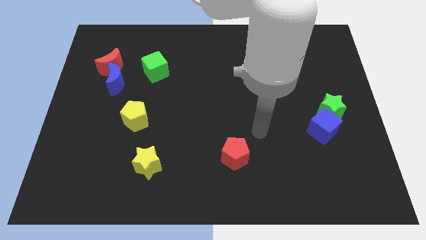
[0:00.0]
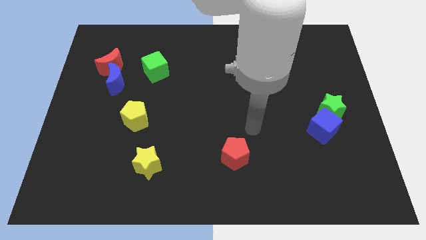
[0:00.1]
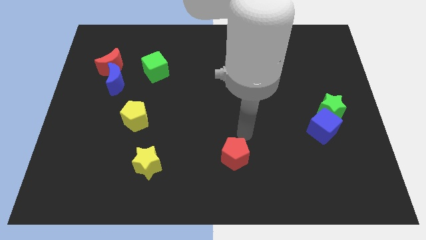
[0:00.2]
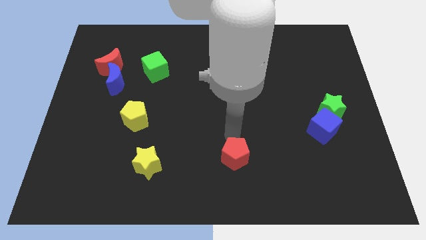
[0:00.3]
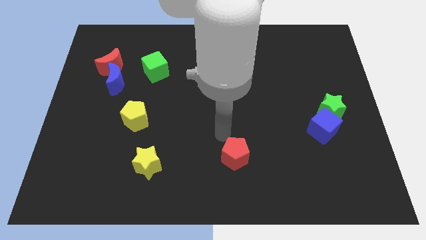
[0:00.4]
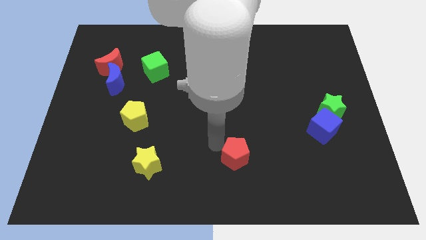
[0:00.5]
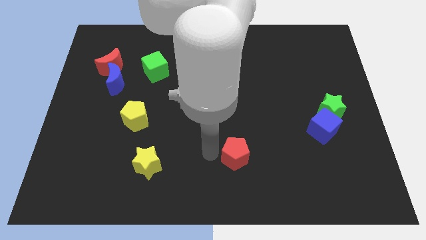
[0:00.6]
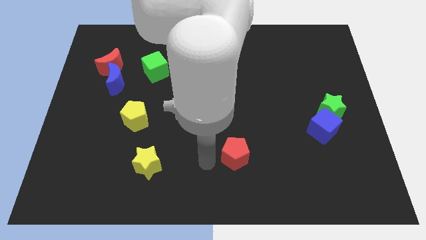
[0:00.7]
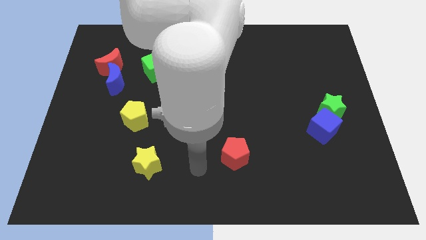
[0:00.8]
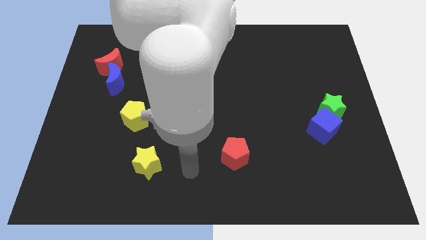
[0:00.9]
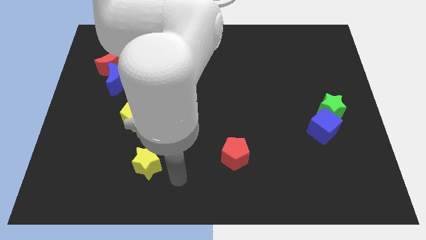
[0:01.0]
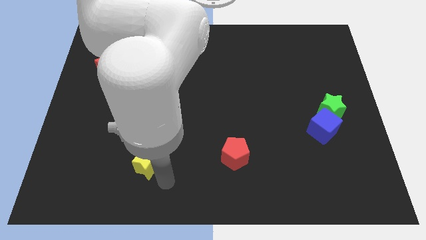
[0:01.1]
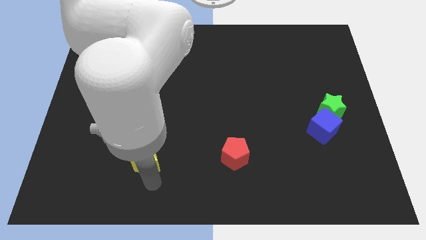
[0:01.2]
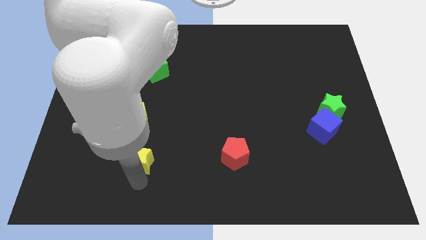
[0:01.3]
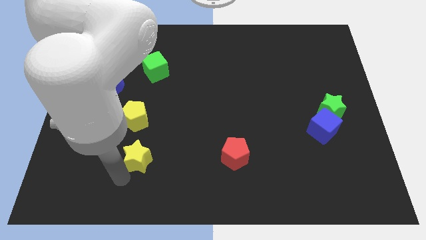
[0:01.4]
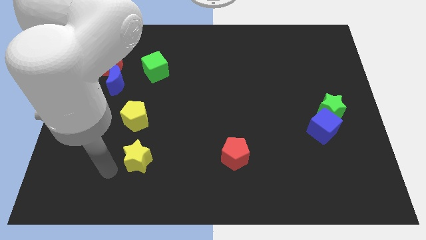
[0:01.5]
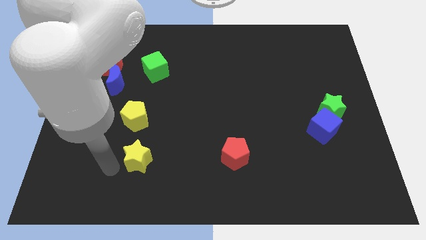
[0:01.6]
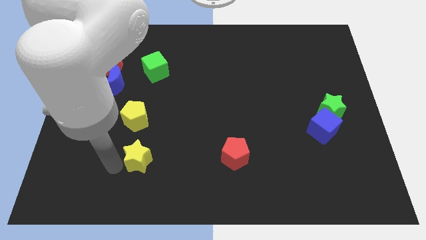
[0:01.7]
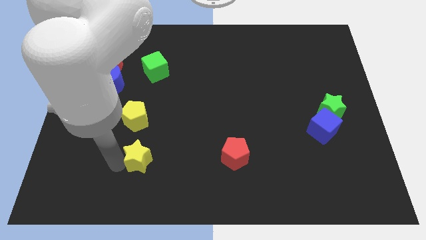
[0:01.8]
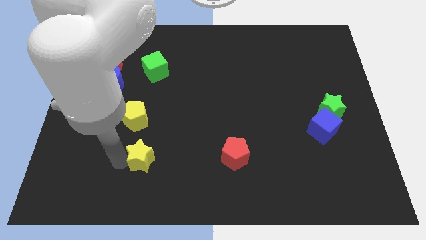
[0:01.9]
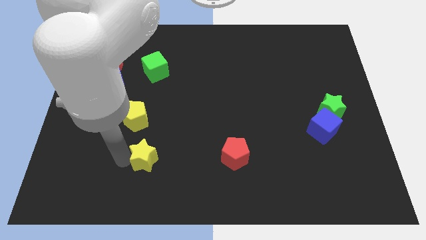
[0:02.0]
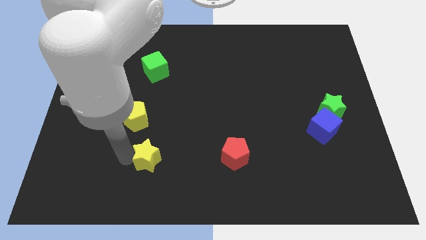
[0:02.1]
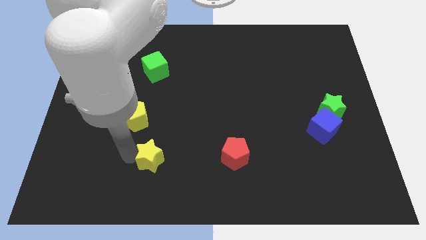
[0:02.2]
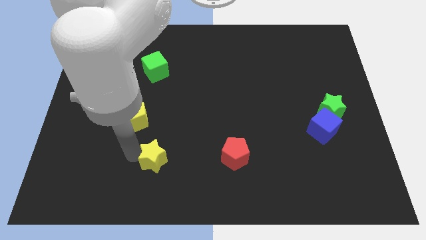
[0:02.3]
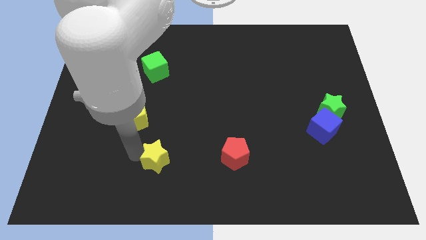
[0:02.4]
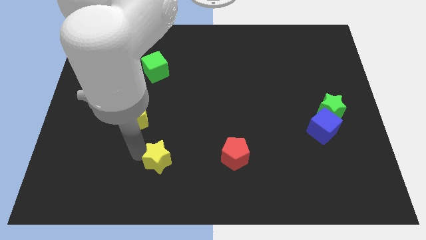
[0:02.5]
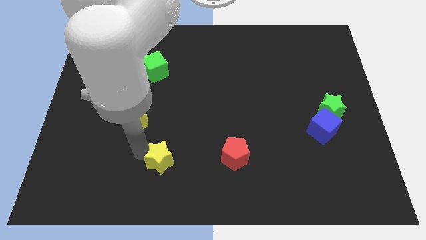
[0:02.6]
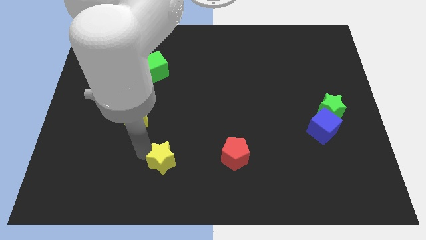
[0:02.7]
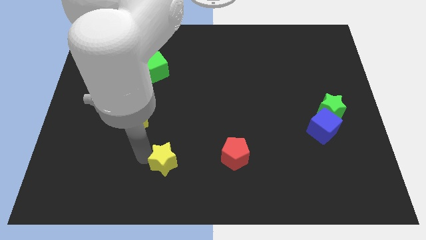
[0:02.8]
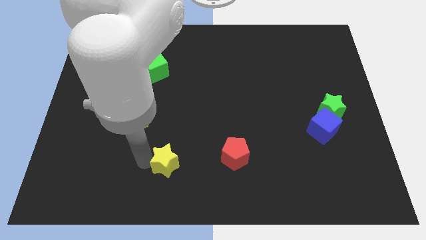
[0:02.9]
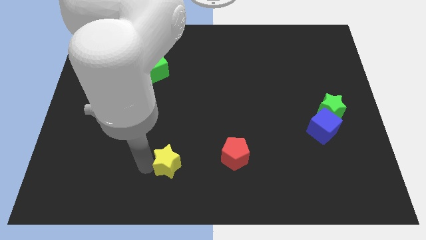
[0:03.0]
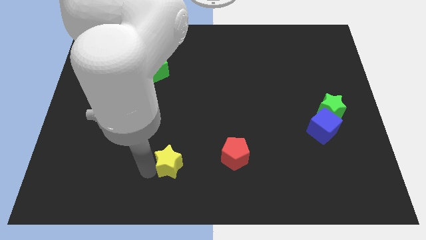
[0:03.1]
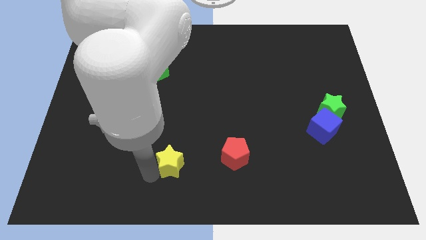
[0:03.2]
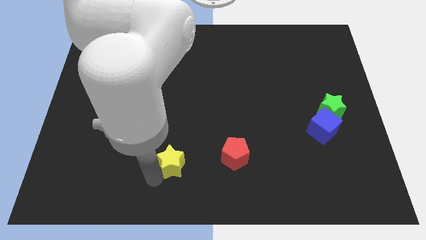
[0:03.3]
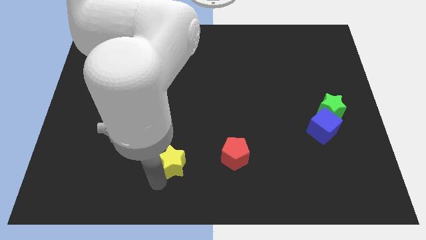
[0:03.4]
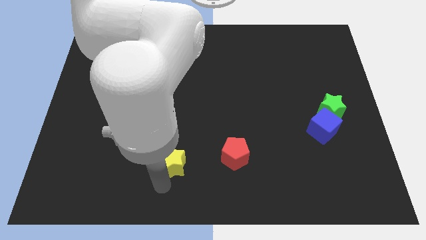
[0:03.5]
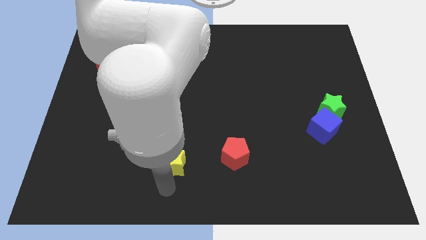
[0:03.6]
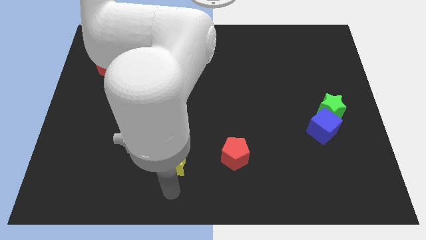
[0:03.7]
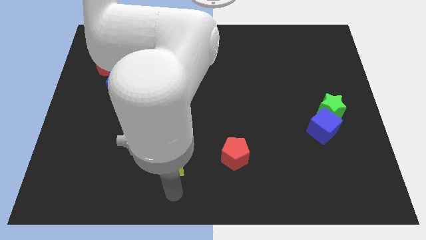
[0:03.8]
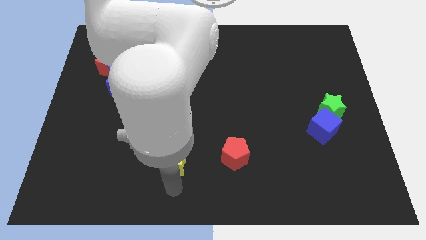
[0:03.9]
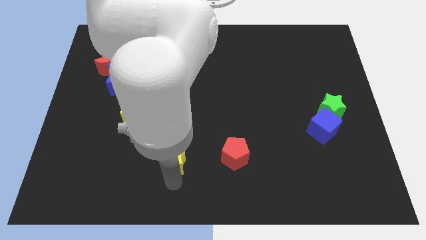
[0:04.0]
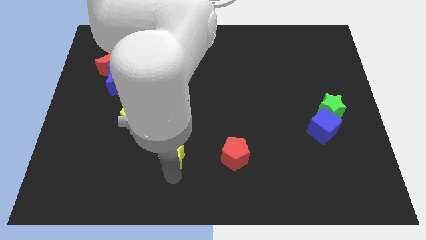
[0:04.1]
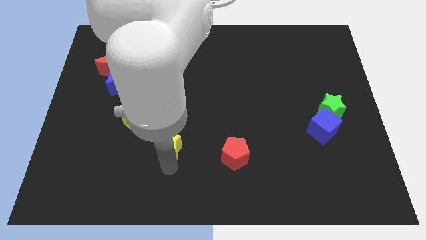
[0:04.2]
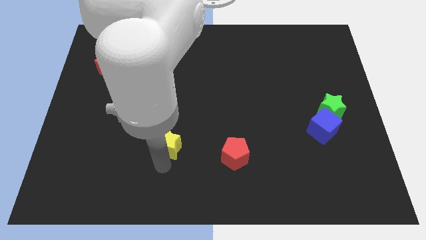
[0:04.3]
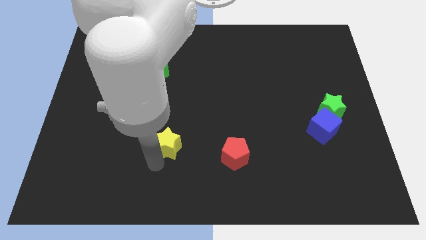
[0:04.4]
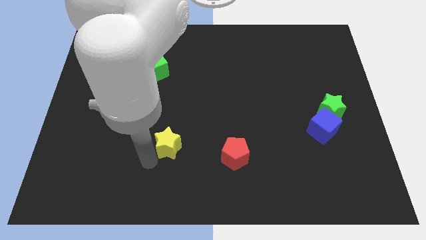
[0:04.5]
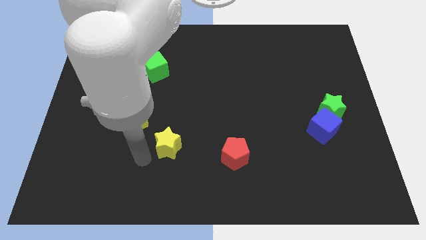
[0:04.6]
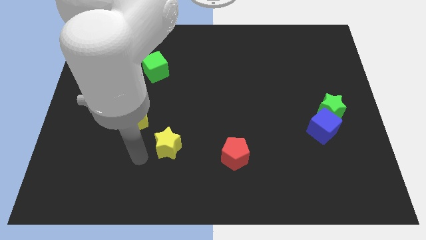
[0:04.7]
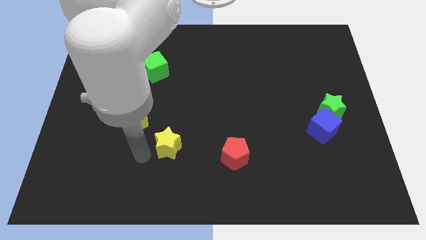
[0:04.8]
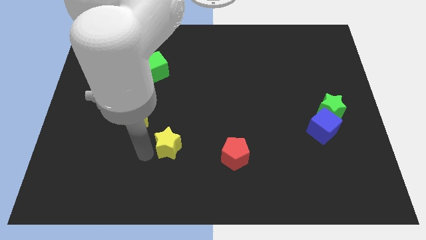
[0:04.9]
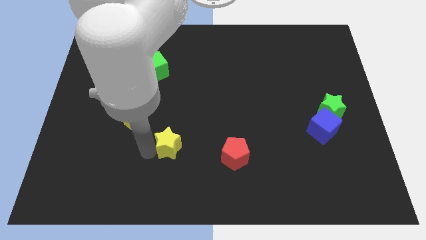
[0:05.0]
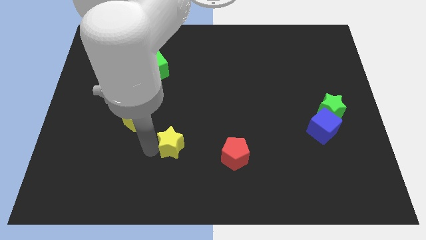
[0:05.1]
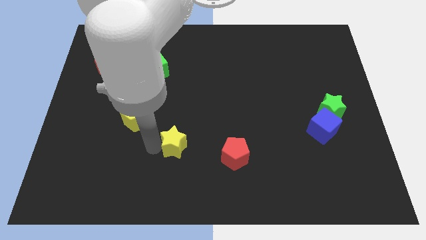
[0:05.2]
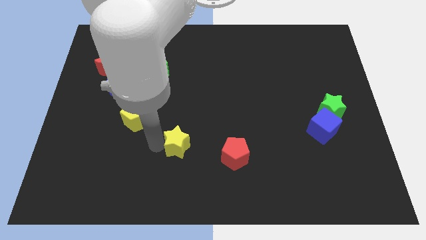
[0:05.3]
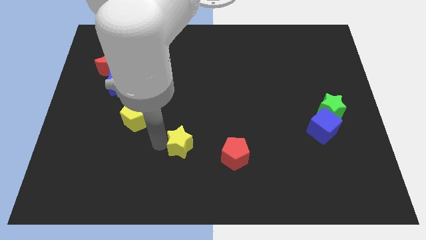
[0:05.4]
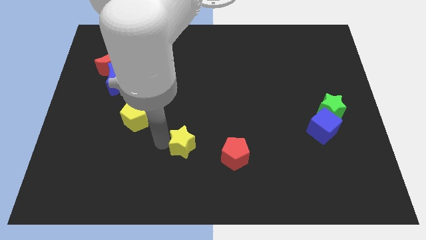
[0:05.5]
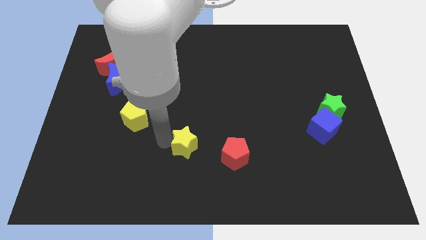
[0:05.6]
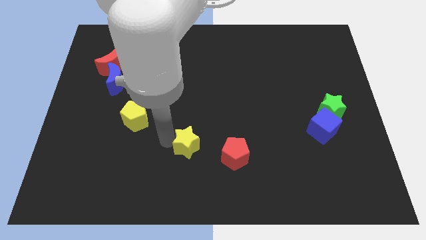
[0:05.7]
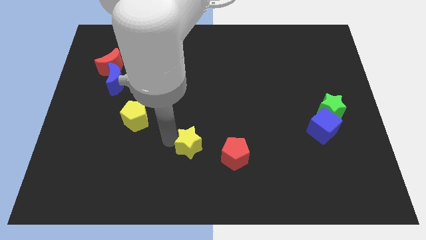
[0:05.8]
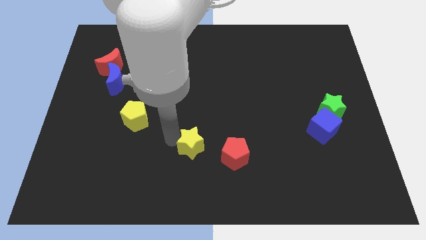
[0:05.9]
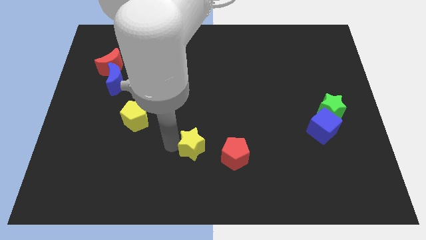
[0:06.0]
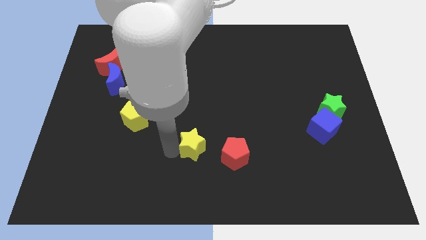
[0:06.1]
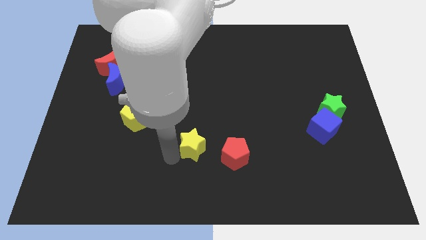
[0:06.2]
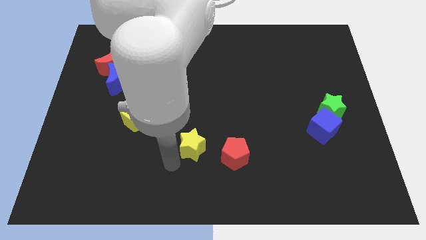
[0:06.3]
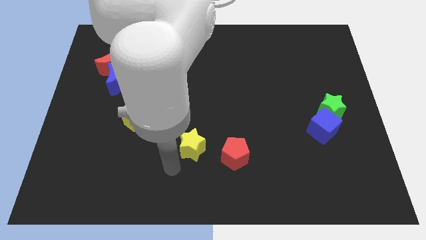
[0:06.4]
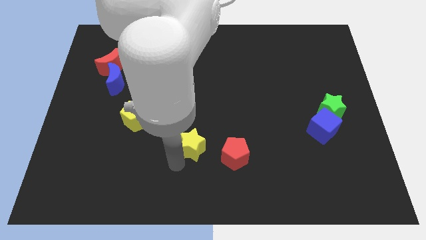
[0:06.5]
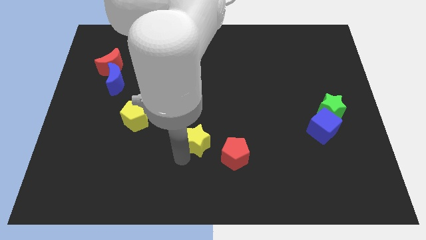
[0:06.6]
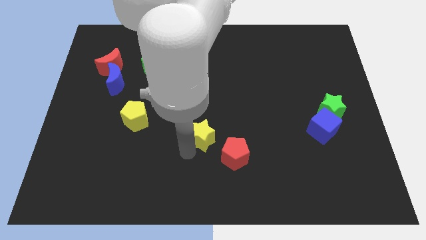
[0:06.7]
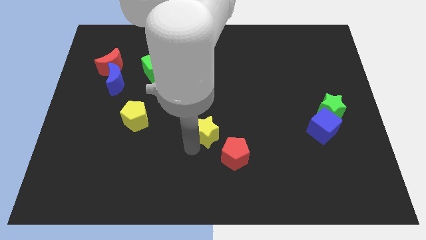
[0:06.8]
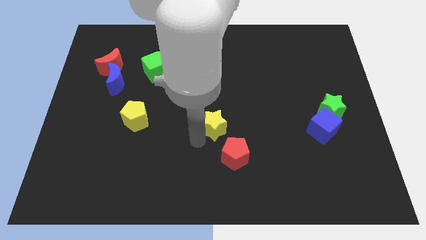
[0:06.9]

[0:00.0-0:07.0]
move the yellow star above the red pentagon
